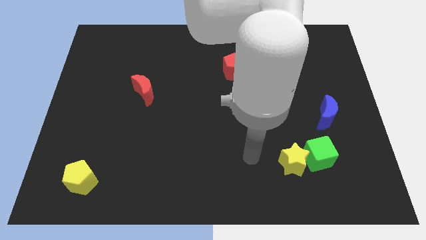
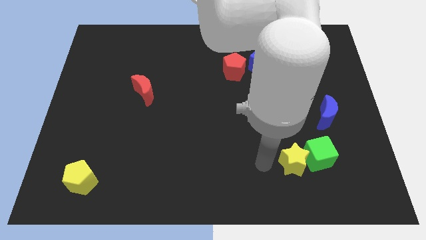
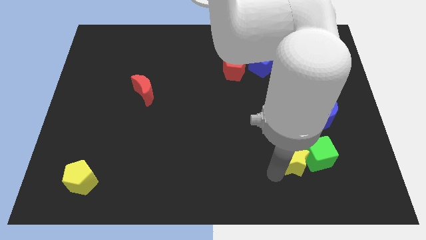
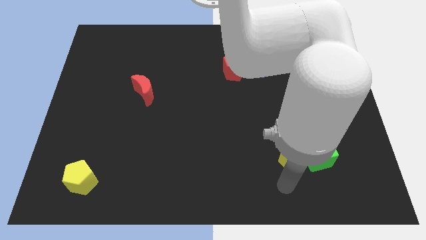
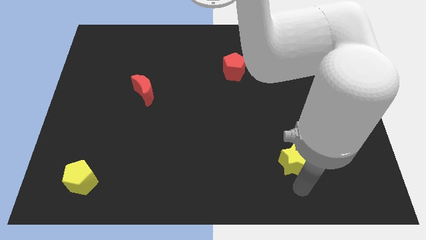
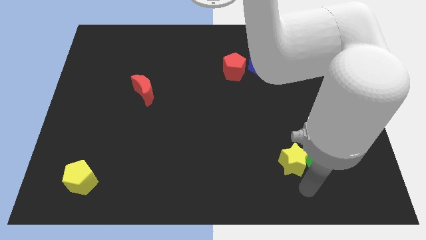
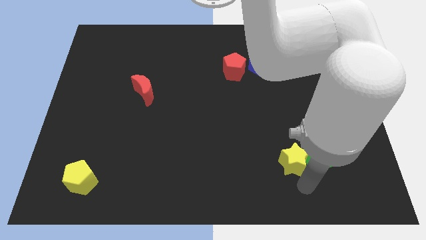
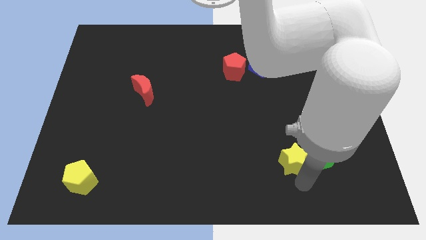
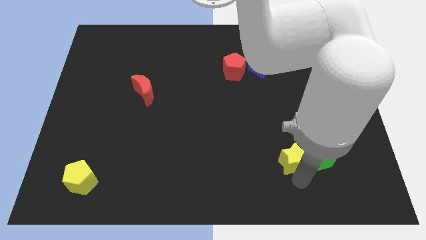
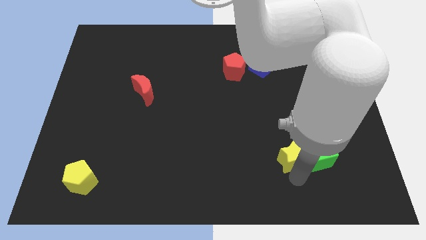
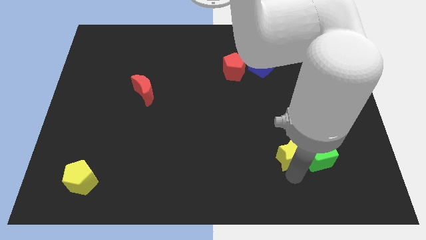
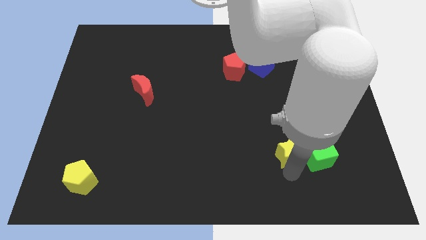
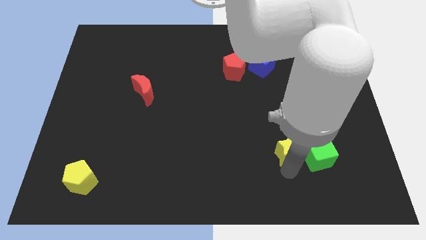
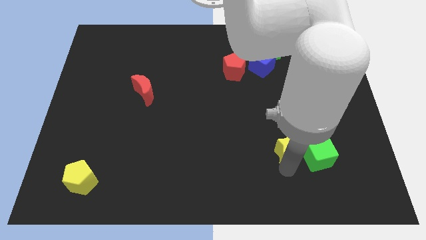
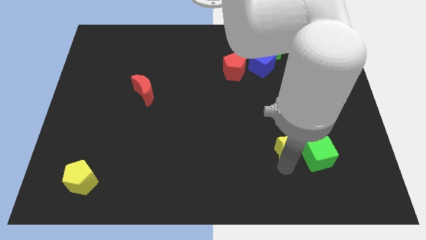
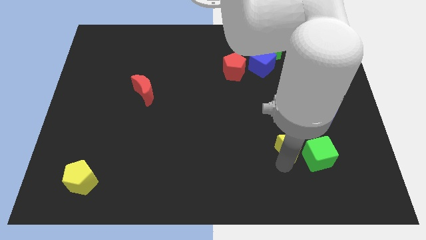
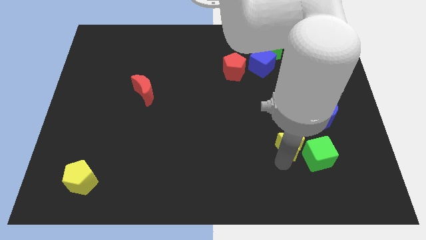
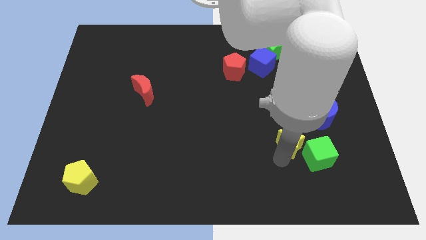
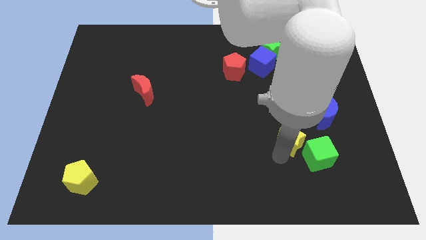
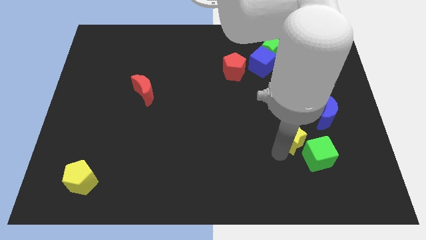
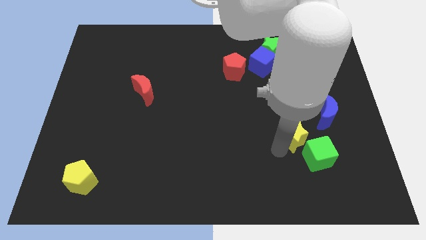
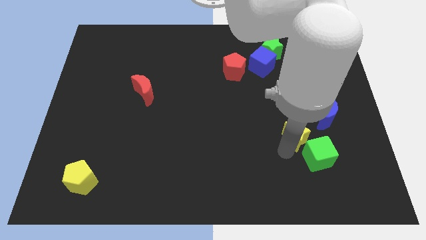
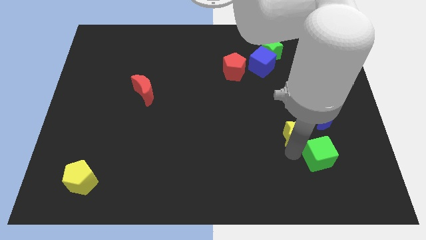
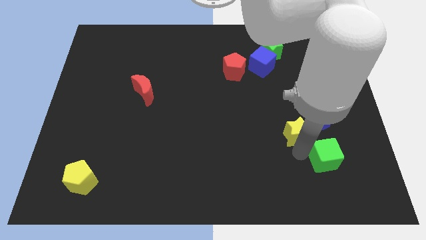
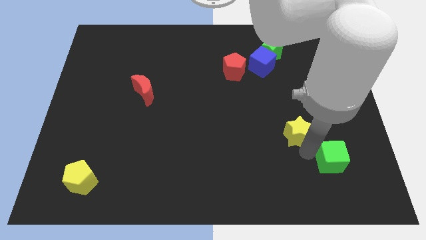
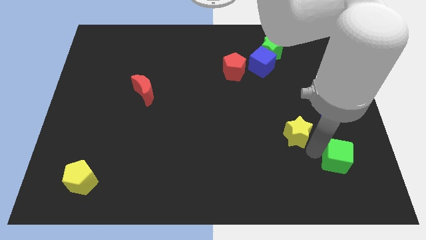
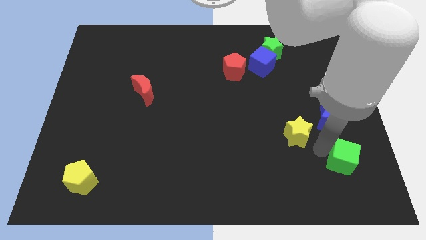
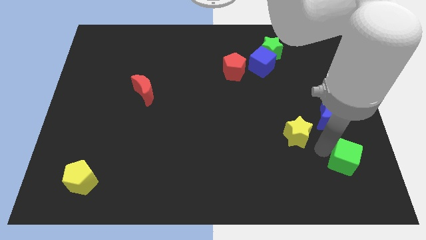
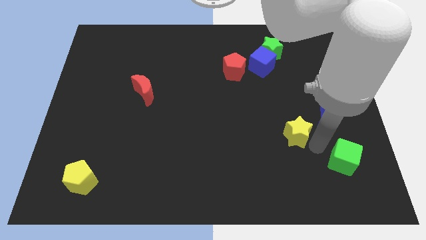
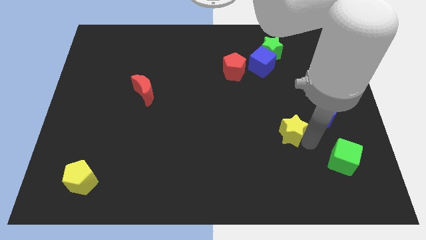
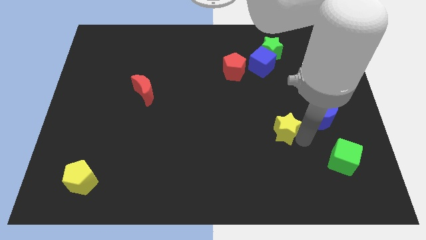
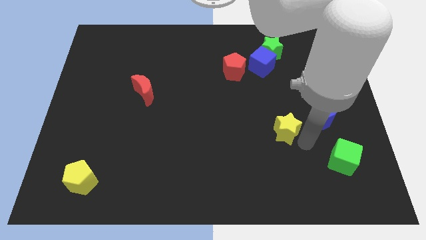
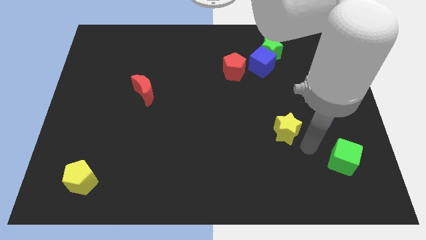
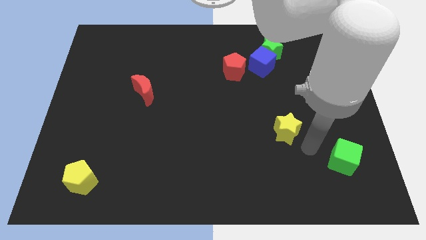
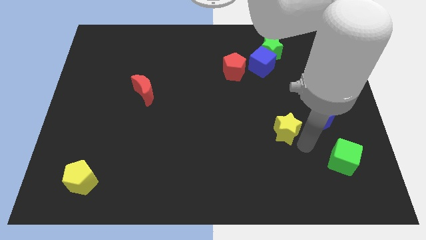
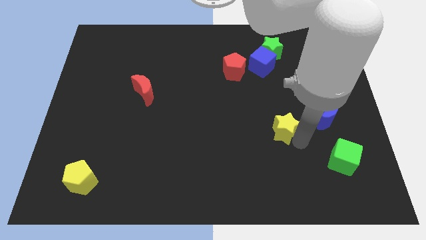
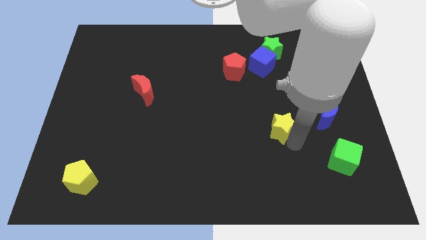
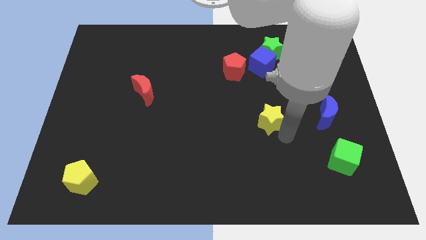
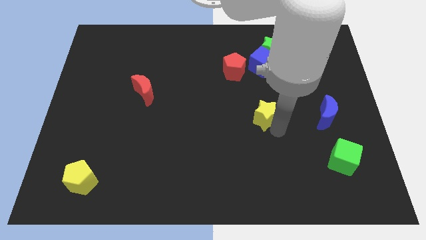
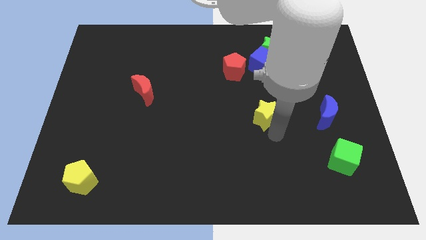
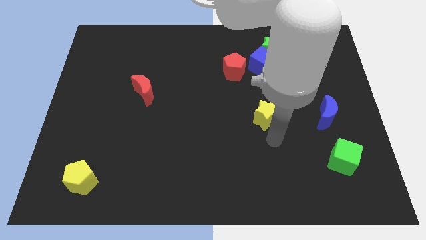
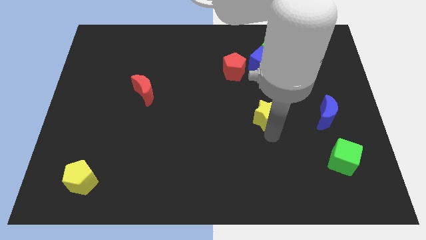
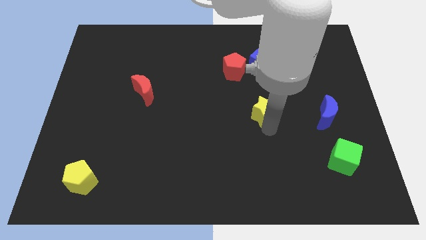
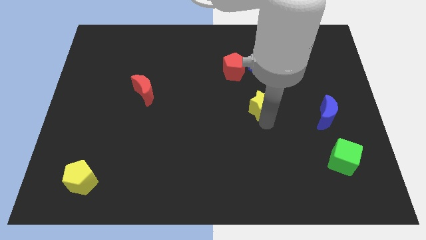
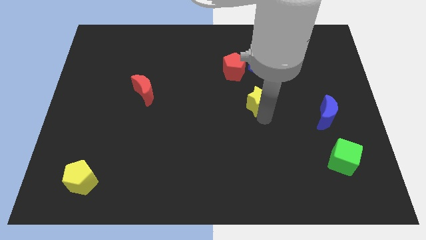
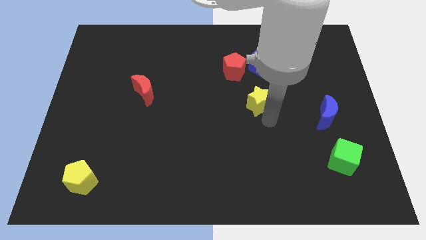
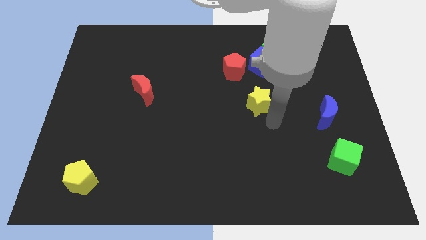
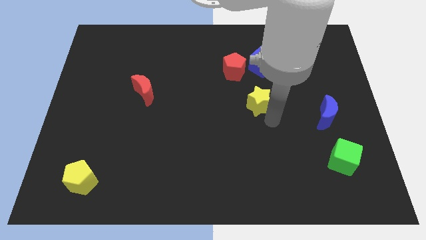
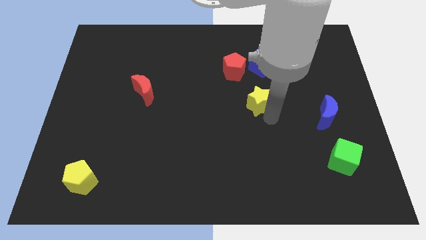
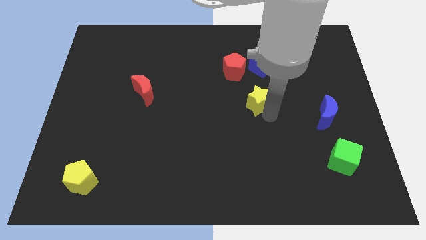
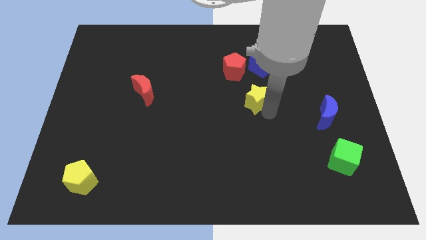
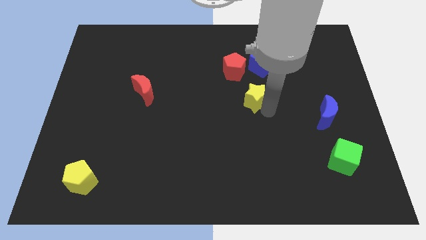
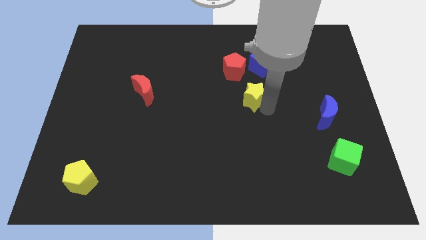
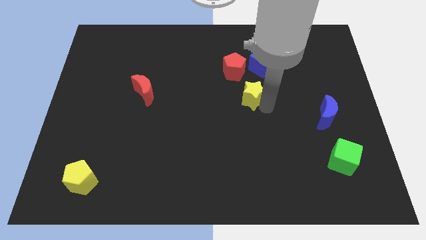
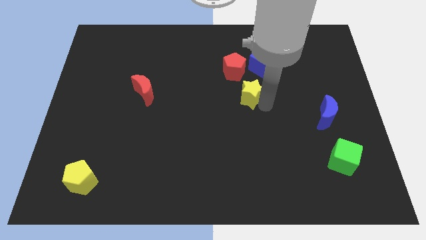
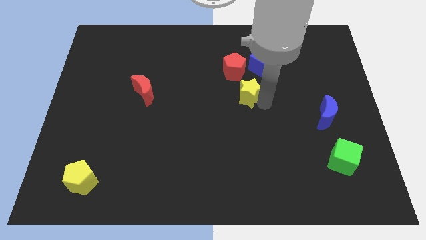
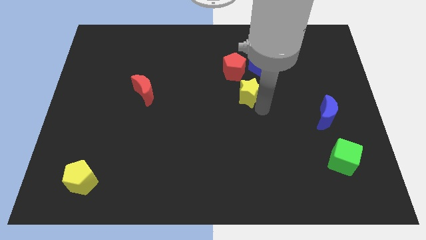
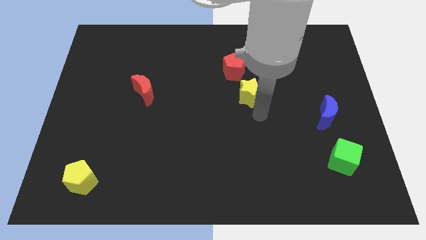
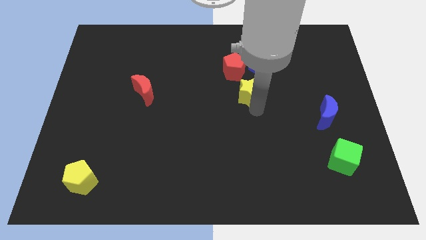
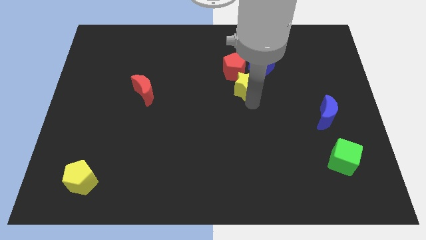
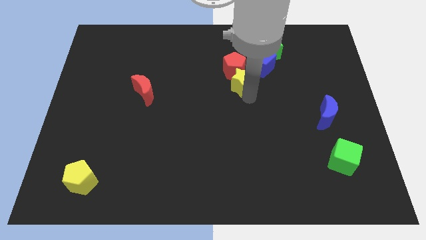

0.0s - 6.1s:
slide the yellow star to the red pentagon

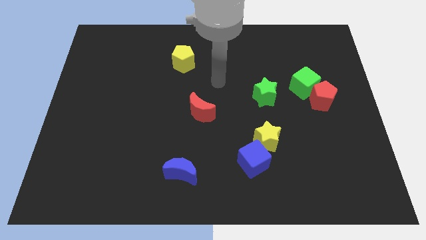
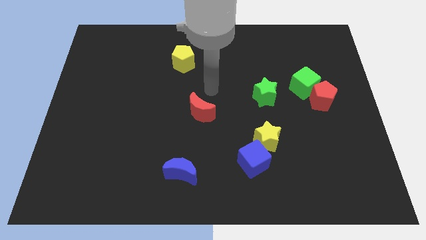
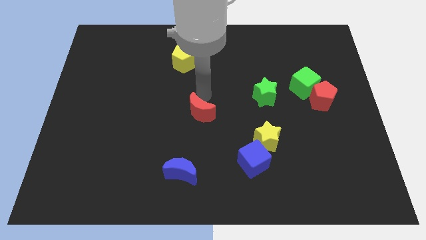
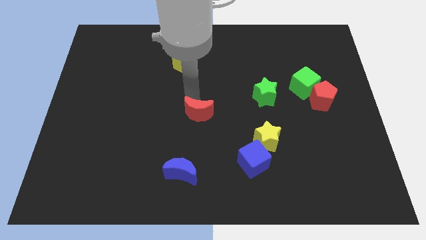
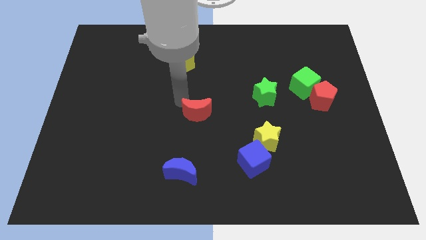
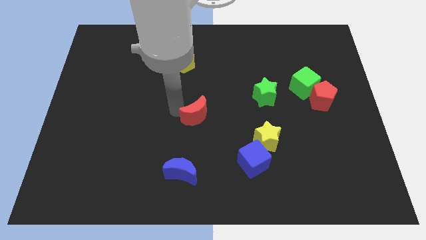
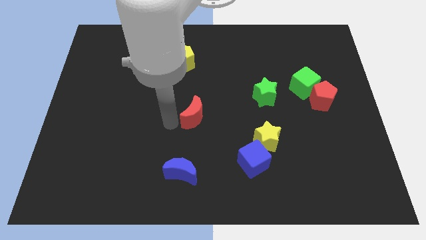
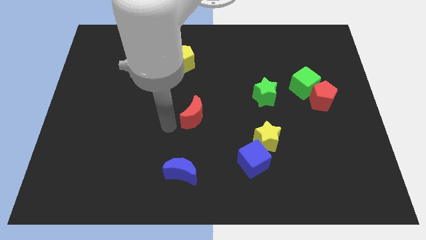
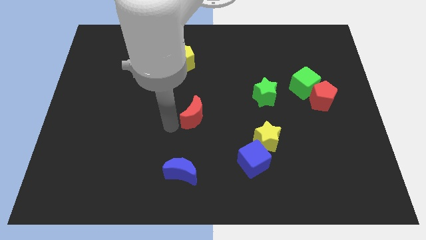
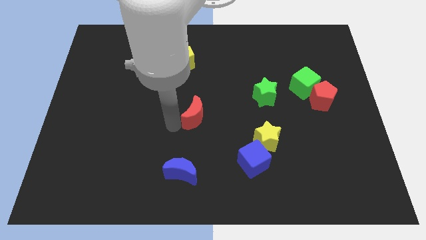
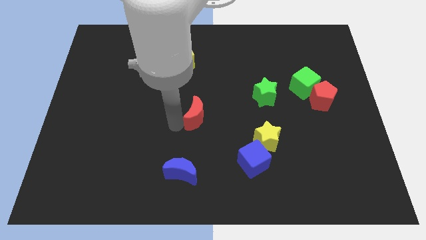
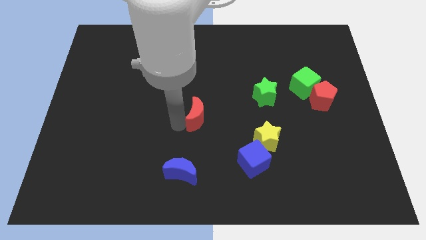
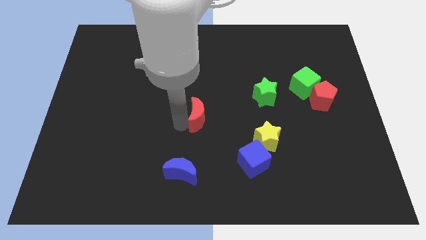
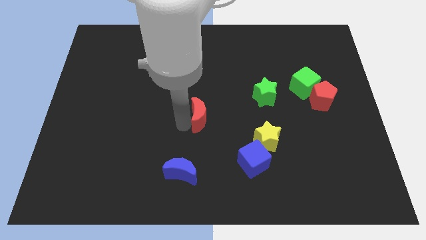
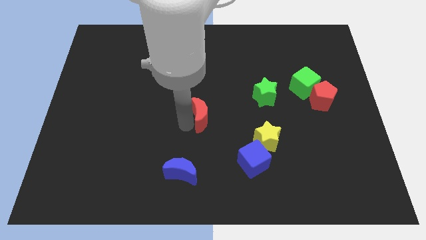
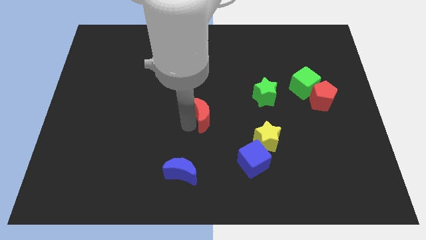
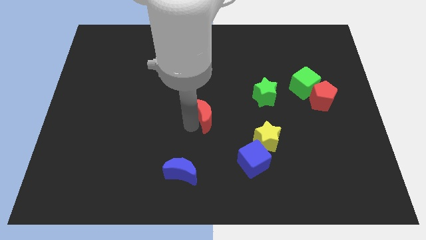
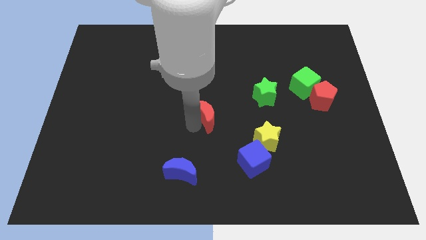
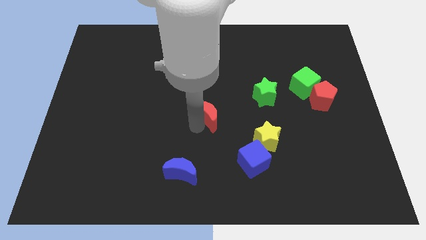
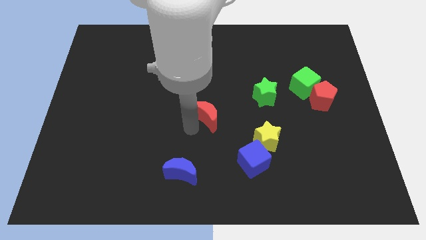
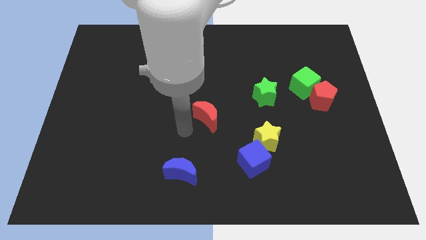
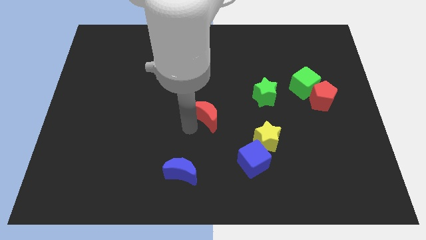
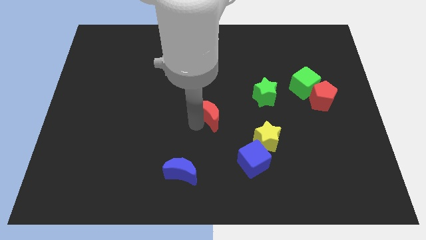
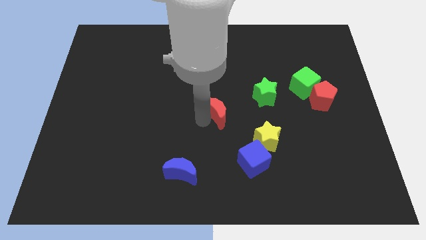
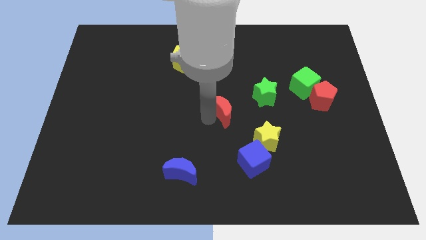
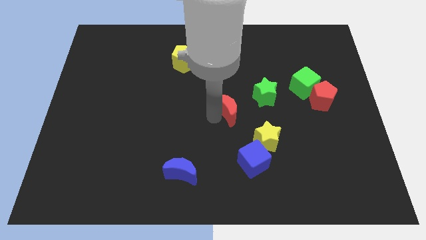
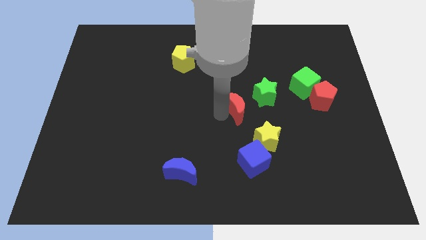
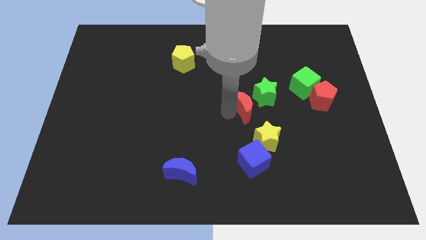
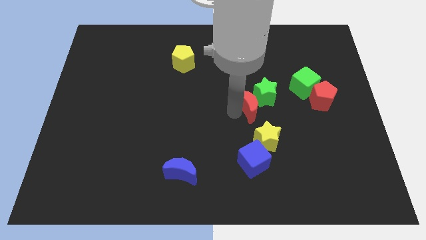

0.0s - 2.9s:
put the red moon next to the green star
